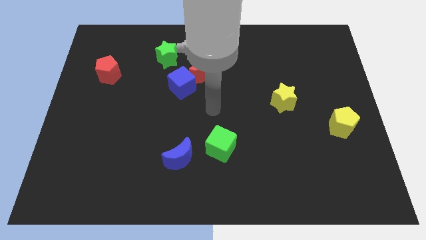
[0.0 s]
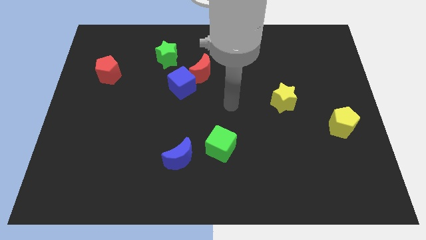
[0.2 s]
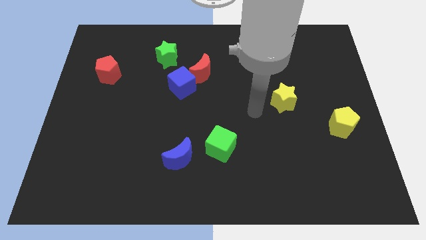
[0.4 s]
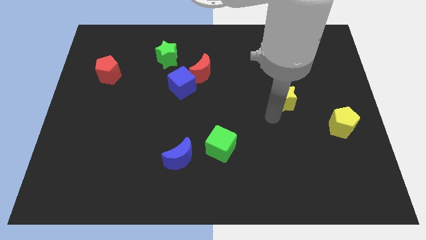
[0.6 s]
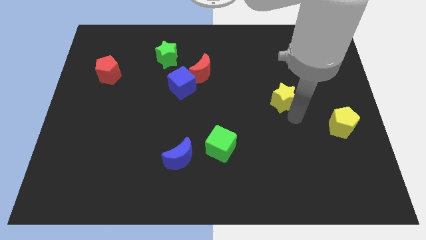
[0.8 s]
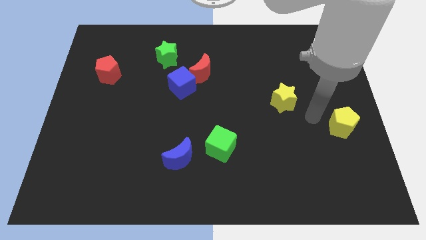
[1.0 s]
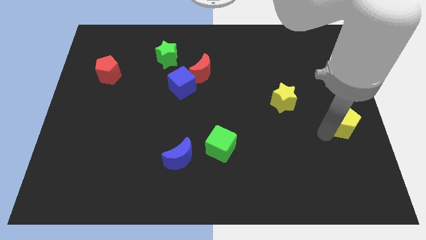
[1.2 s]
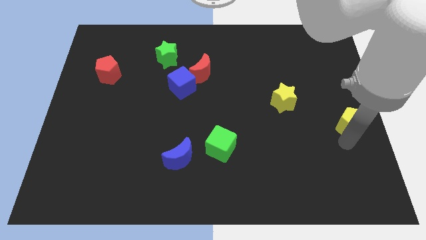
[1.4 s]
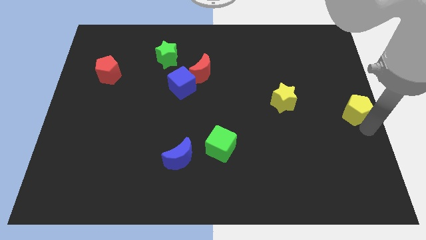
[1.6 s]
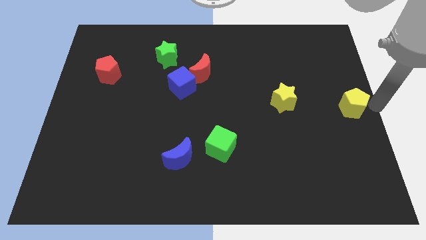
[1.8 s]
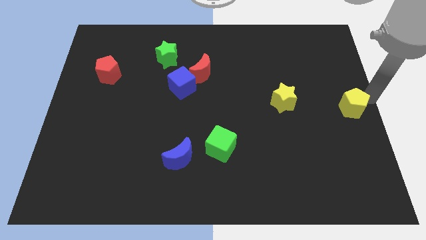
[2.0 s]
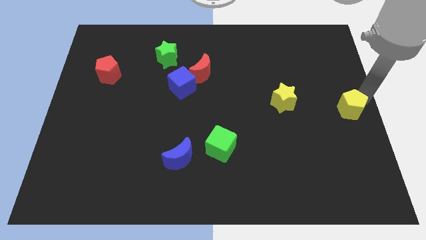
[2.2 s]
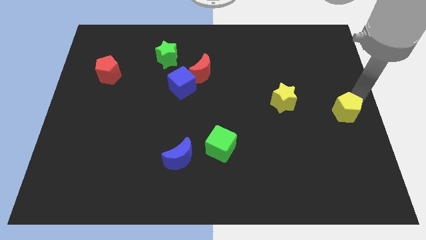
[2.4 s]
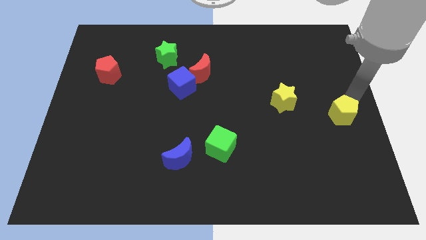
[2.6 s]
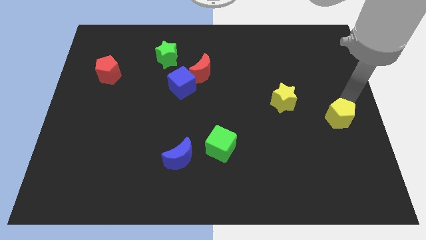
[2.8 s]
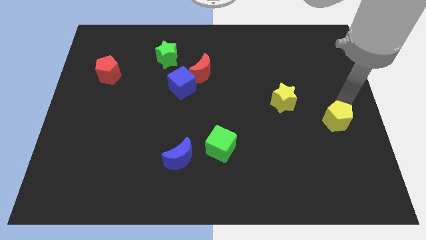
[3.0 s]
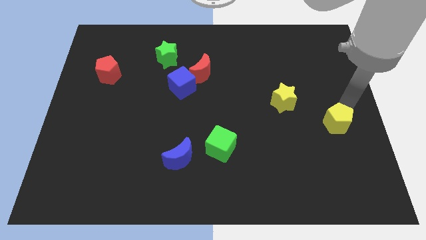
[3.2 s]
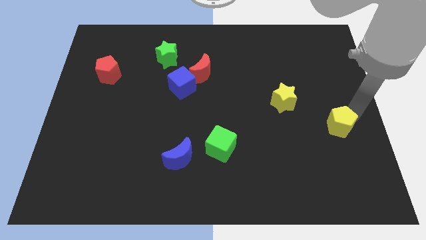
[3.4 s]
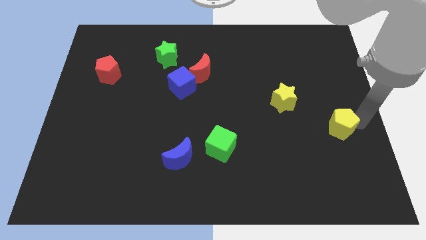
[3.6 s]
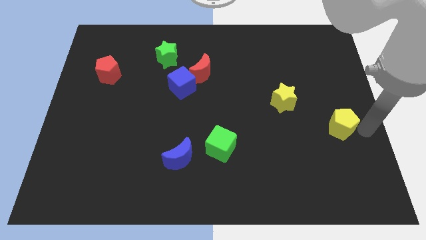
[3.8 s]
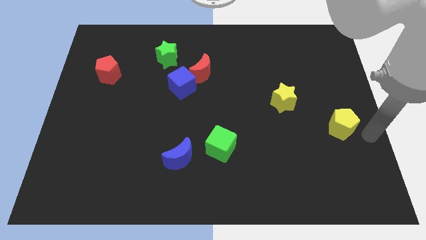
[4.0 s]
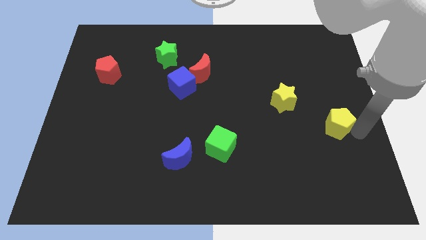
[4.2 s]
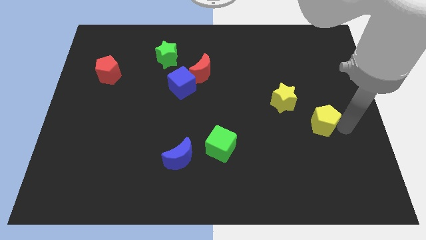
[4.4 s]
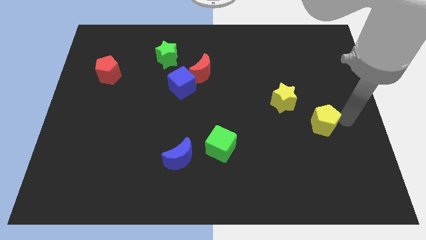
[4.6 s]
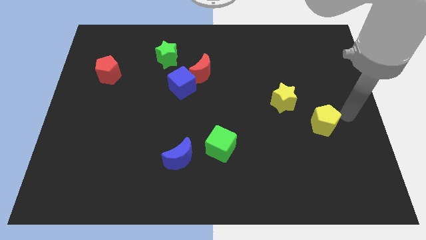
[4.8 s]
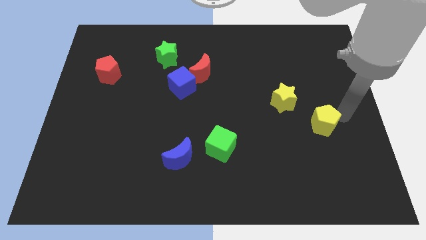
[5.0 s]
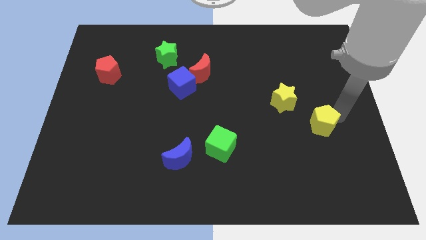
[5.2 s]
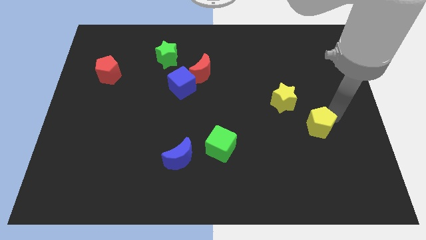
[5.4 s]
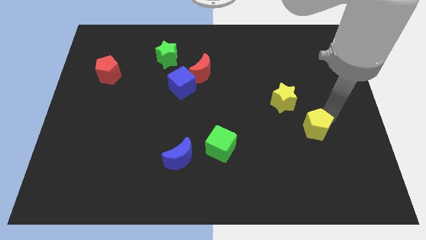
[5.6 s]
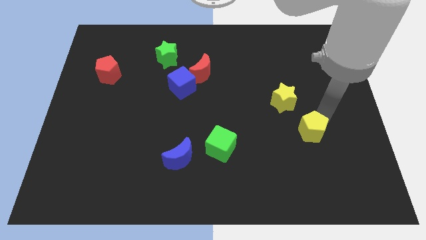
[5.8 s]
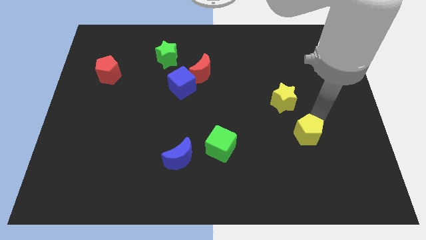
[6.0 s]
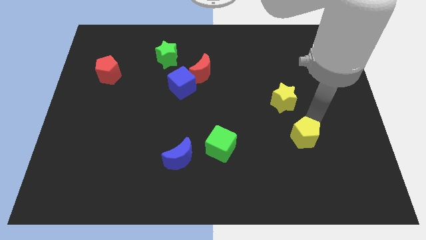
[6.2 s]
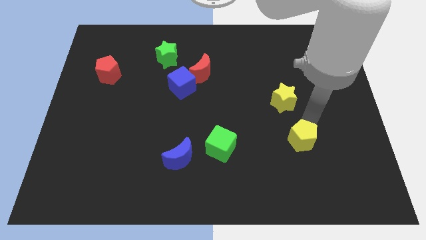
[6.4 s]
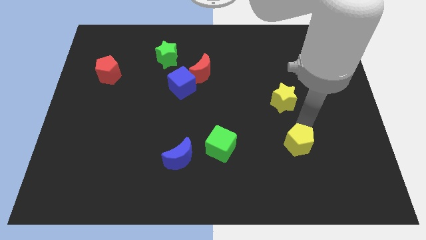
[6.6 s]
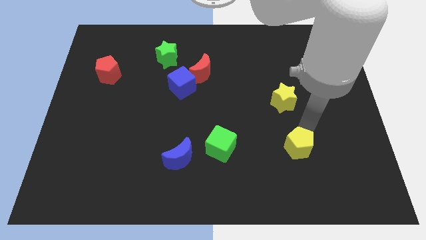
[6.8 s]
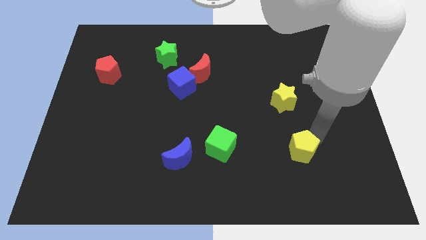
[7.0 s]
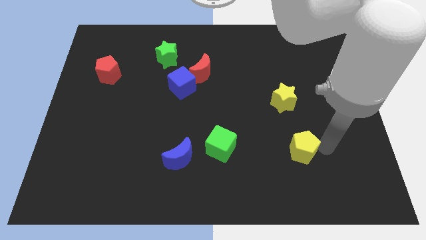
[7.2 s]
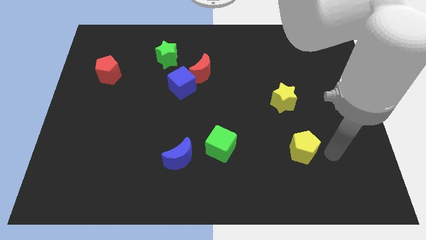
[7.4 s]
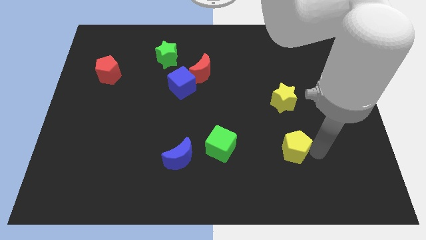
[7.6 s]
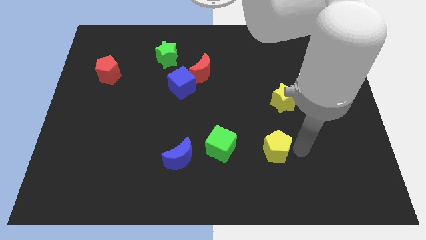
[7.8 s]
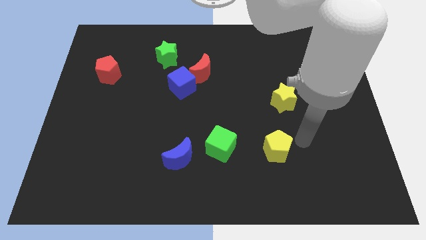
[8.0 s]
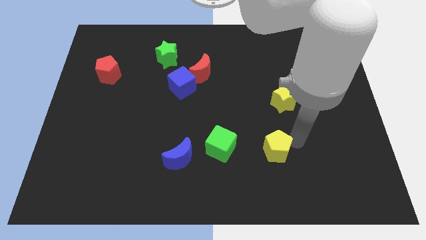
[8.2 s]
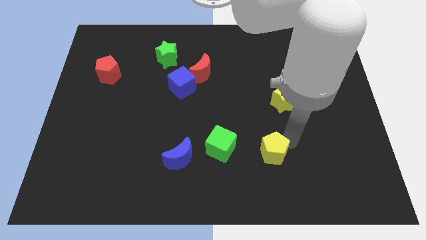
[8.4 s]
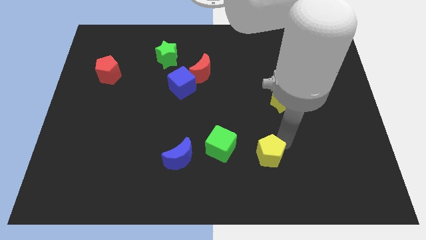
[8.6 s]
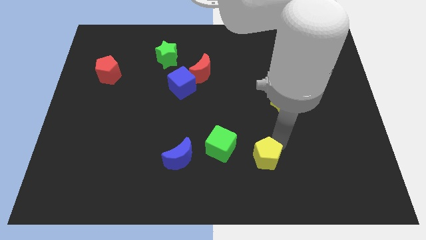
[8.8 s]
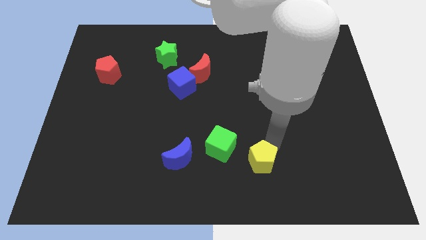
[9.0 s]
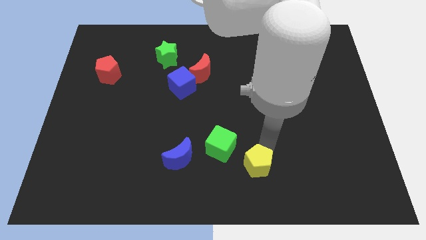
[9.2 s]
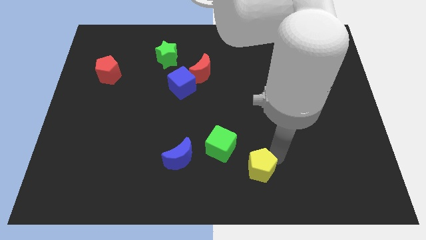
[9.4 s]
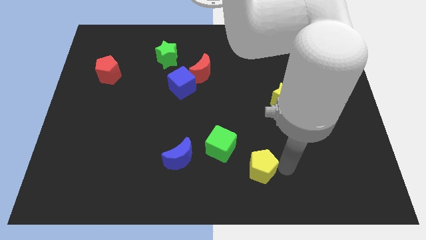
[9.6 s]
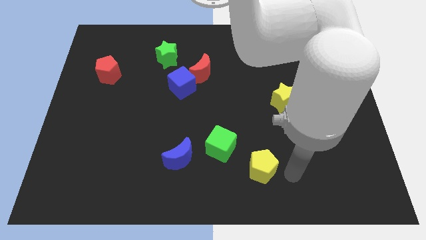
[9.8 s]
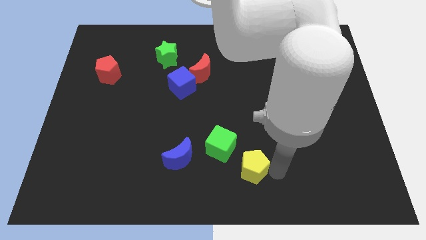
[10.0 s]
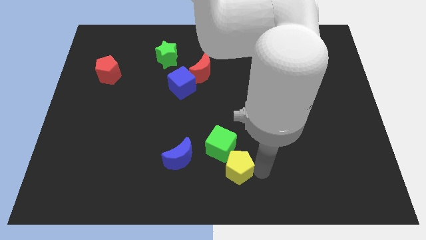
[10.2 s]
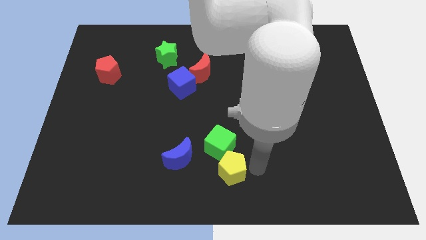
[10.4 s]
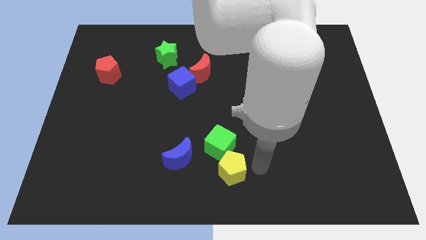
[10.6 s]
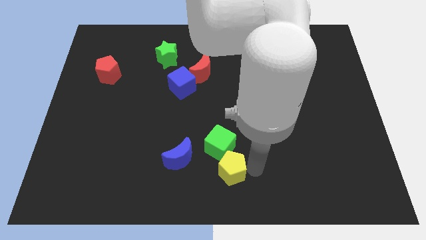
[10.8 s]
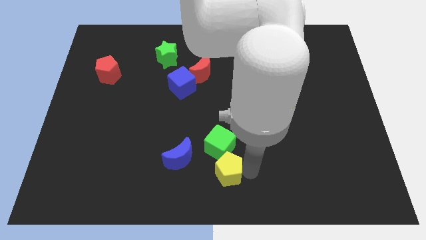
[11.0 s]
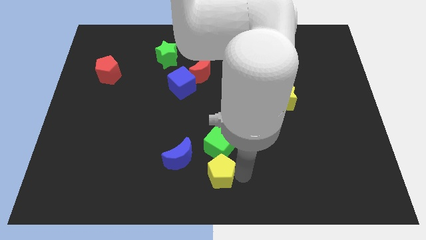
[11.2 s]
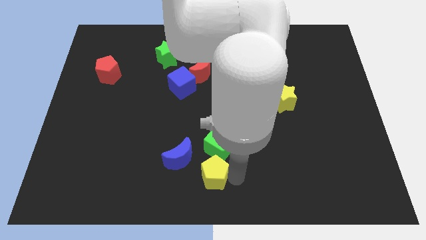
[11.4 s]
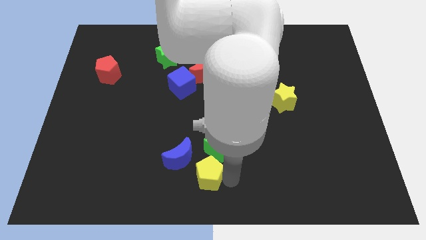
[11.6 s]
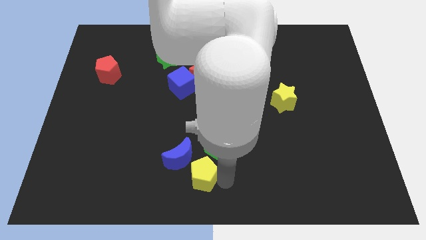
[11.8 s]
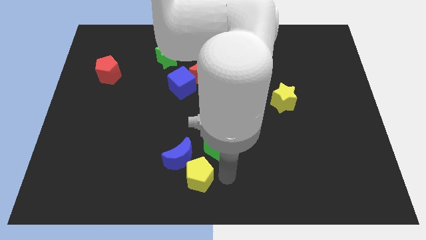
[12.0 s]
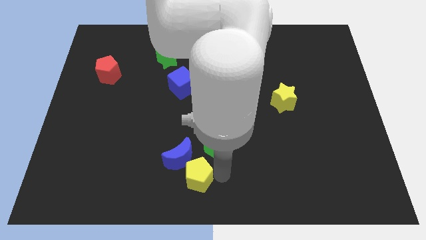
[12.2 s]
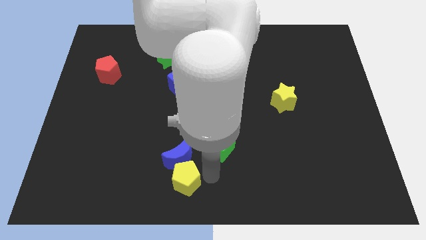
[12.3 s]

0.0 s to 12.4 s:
move the yellow pentagon to the bottom left side of the blue moon

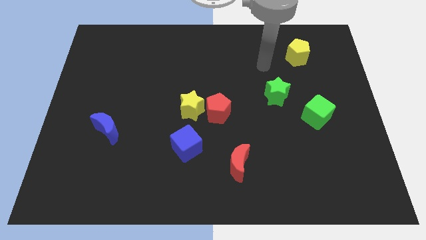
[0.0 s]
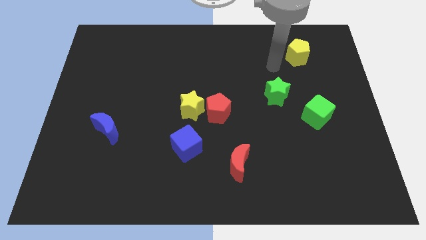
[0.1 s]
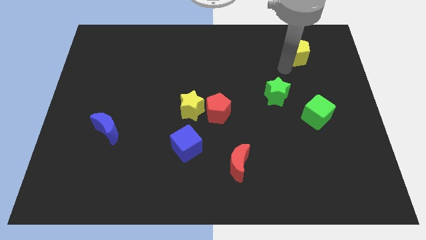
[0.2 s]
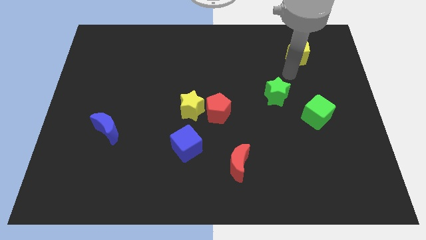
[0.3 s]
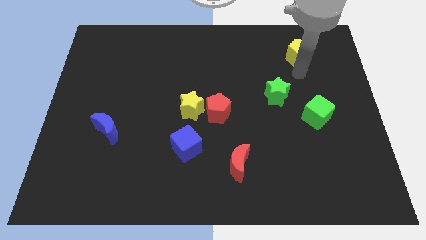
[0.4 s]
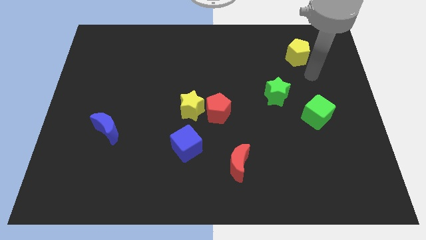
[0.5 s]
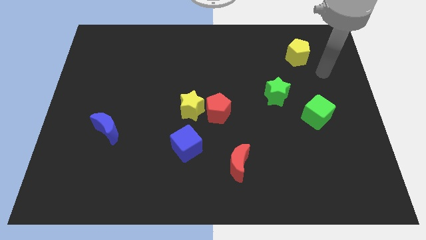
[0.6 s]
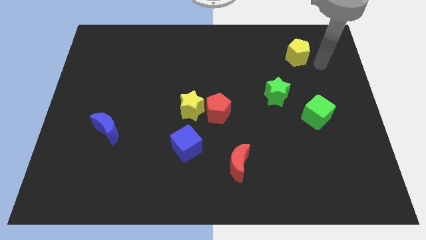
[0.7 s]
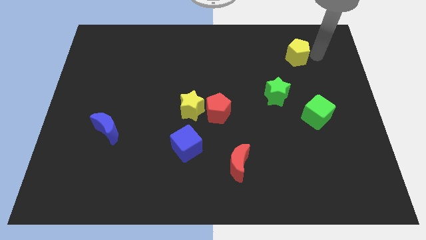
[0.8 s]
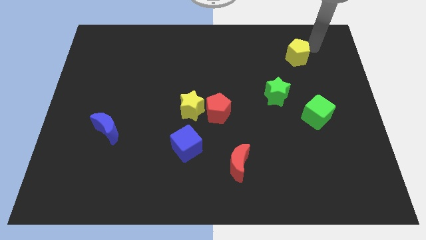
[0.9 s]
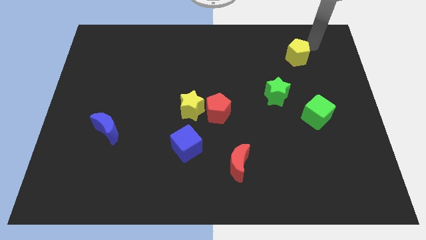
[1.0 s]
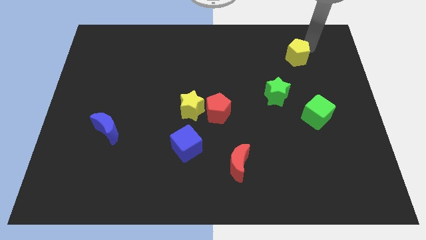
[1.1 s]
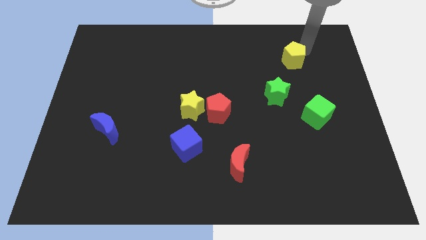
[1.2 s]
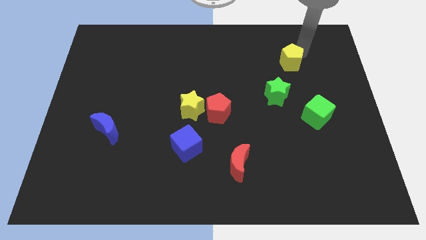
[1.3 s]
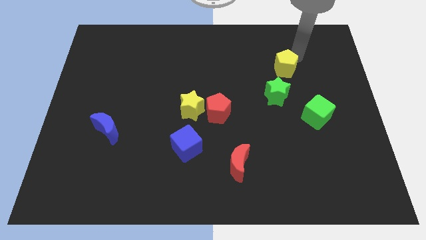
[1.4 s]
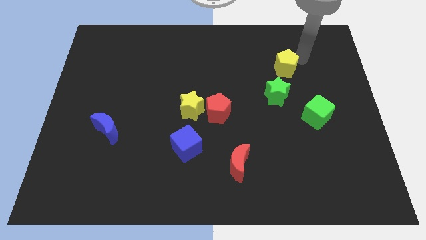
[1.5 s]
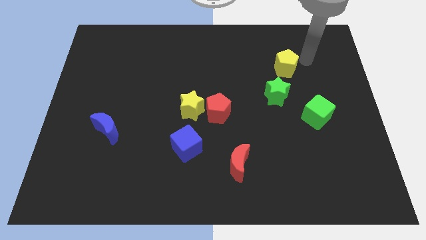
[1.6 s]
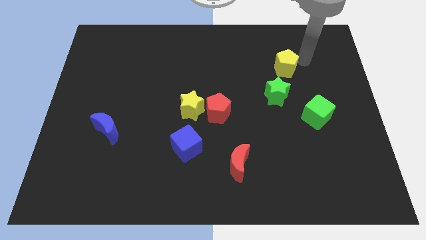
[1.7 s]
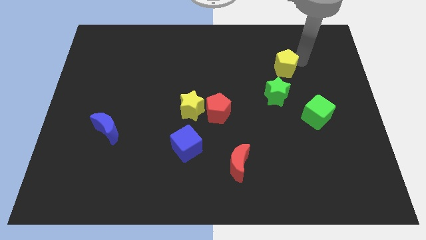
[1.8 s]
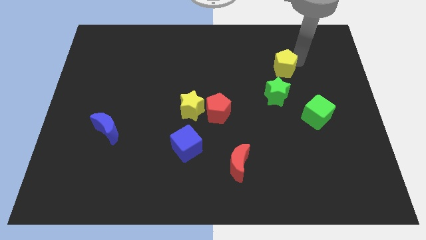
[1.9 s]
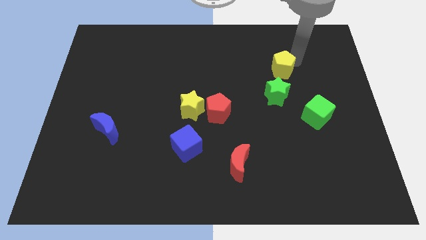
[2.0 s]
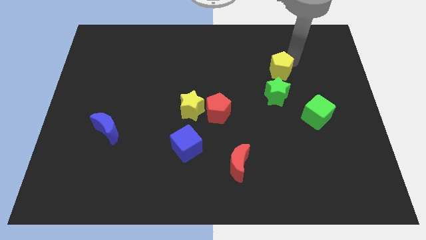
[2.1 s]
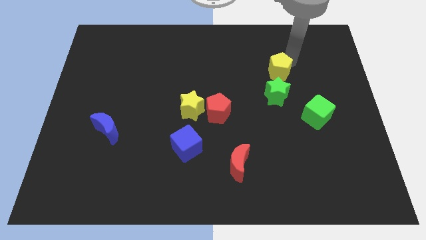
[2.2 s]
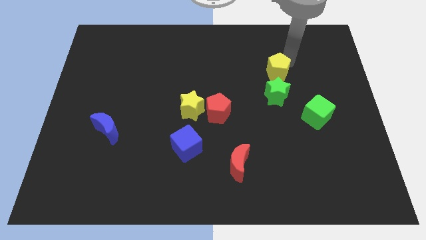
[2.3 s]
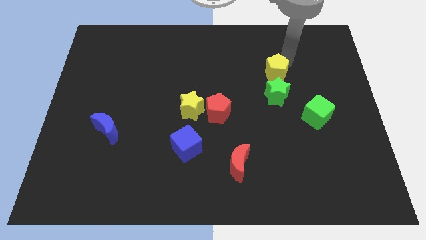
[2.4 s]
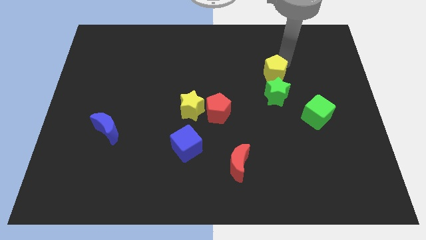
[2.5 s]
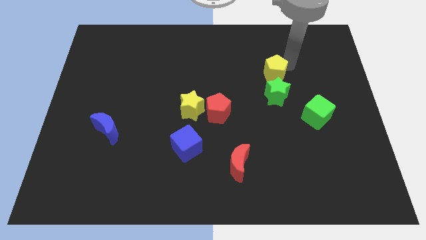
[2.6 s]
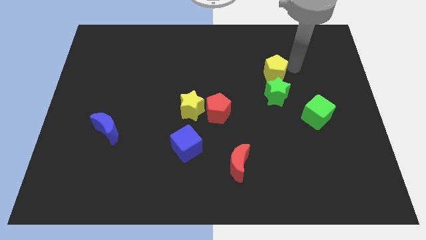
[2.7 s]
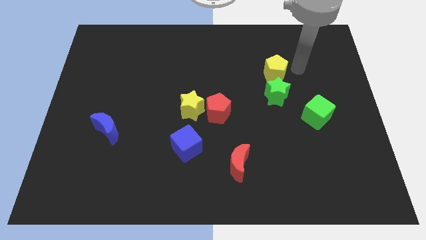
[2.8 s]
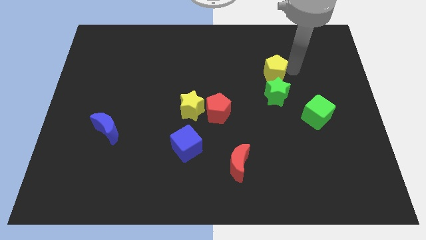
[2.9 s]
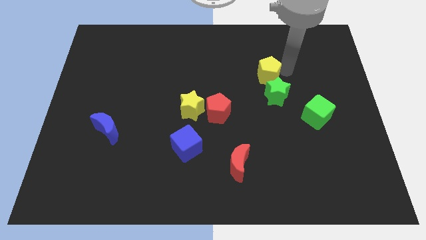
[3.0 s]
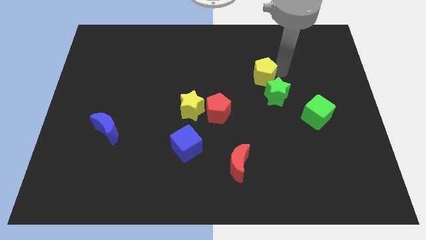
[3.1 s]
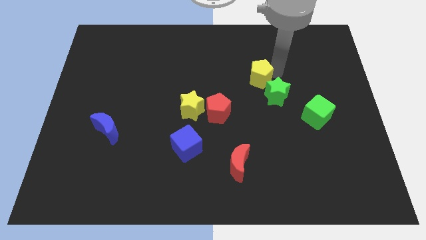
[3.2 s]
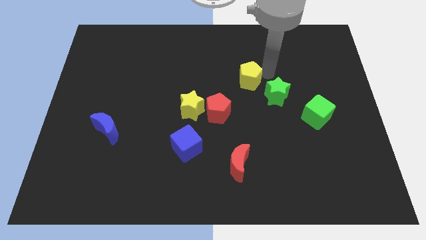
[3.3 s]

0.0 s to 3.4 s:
move the yellow pentagon to the top right of the red pentagon
